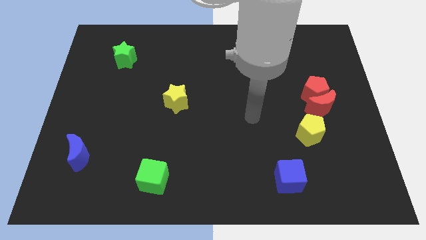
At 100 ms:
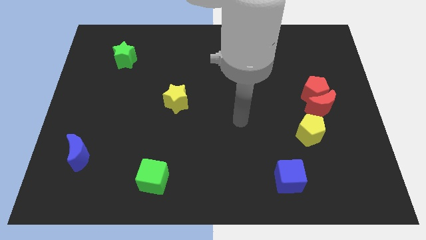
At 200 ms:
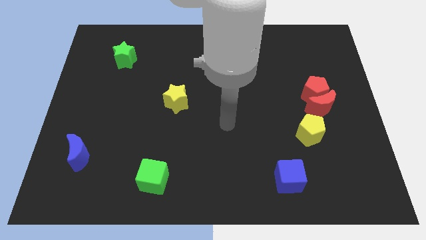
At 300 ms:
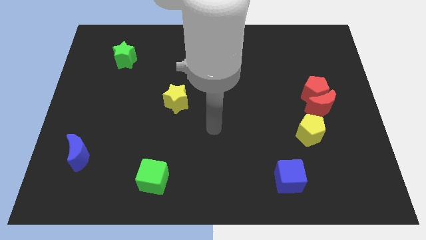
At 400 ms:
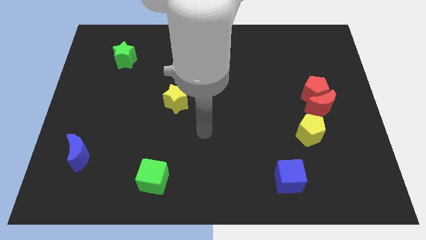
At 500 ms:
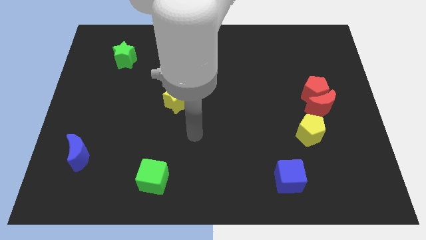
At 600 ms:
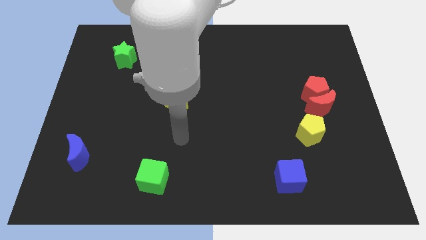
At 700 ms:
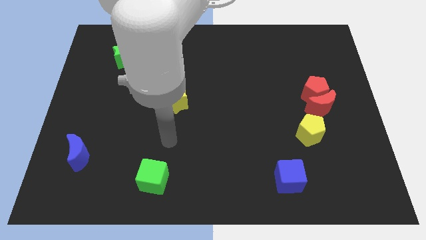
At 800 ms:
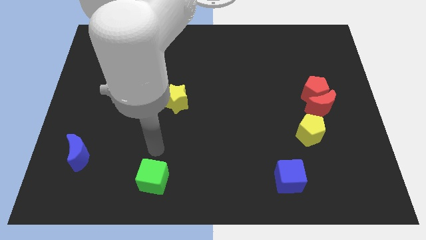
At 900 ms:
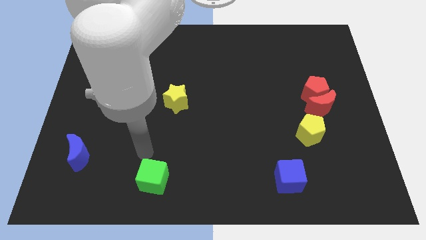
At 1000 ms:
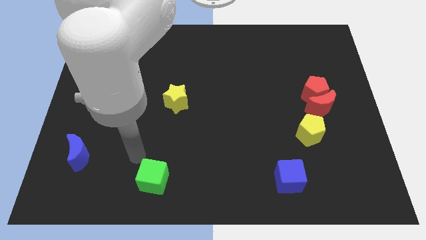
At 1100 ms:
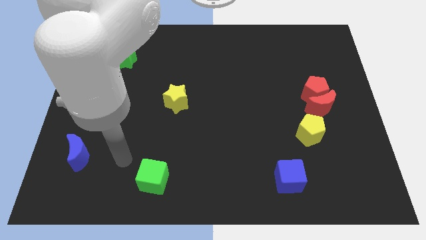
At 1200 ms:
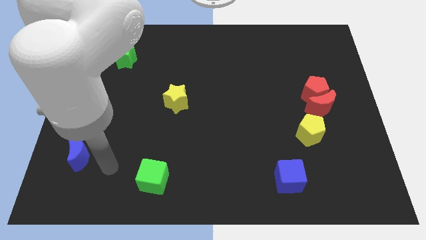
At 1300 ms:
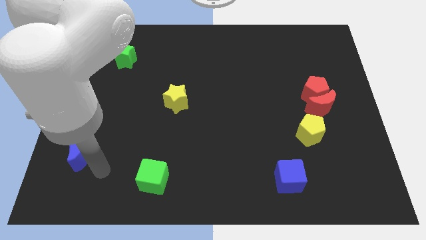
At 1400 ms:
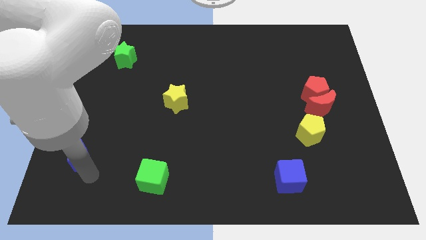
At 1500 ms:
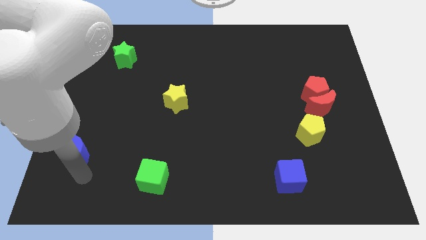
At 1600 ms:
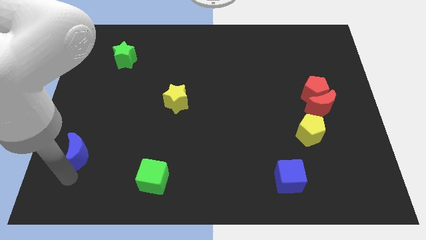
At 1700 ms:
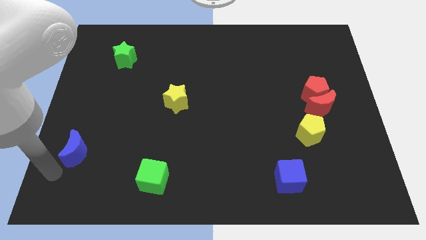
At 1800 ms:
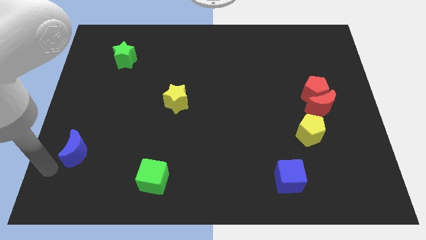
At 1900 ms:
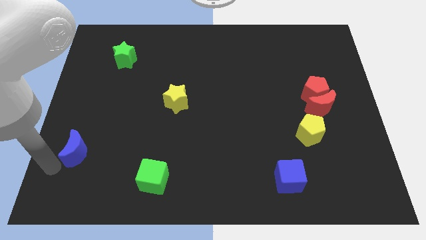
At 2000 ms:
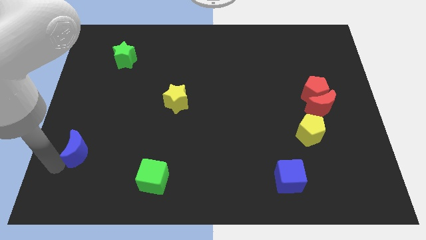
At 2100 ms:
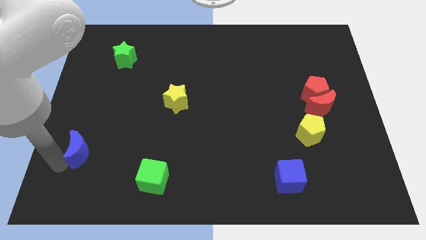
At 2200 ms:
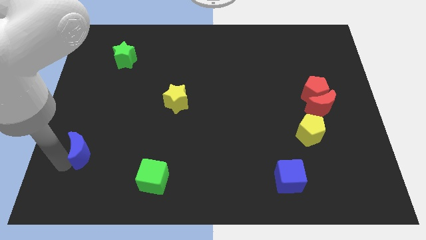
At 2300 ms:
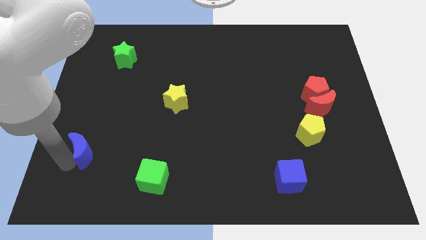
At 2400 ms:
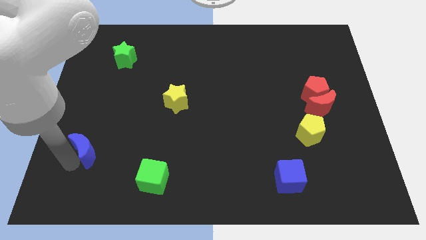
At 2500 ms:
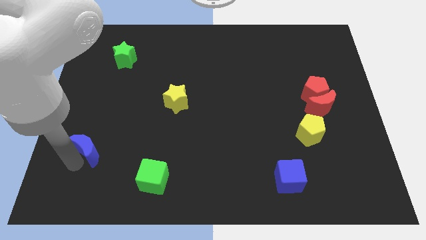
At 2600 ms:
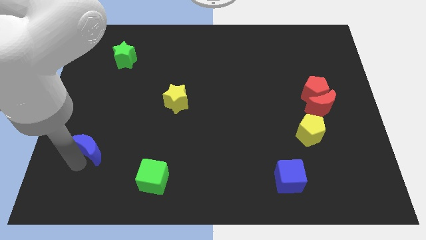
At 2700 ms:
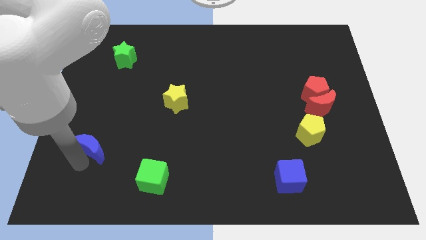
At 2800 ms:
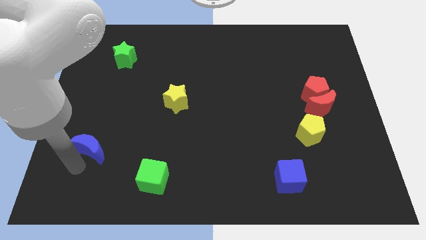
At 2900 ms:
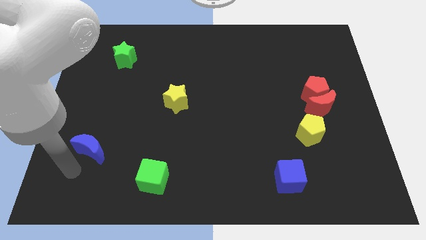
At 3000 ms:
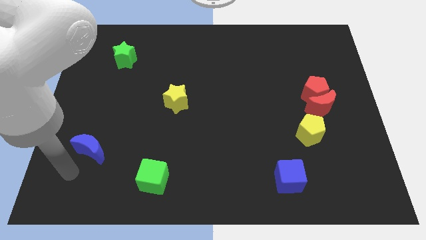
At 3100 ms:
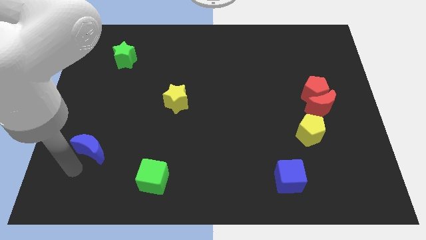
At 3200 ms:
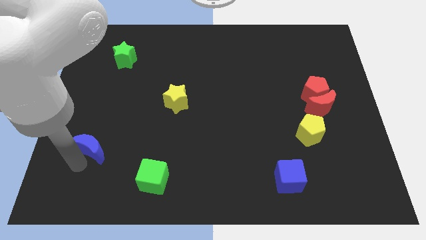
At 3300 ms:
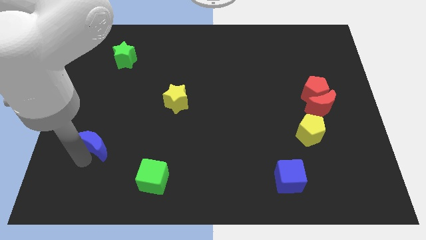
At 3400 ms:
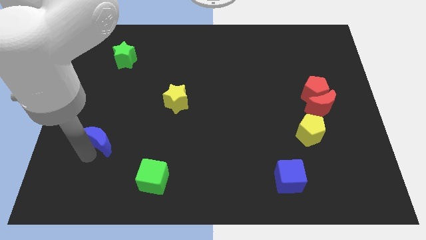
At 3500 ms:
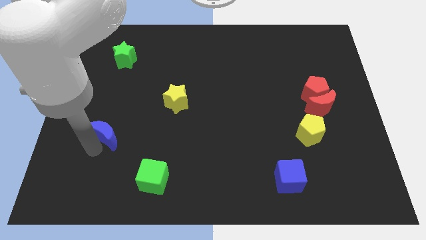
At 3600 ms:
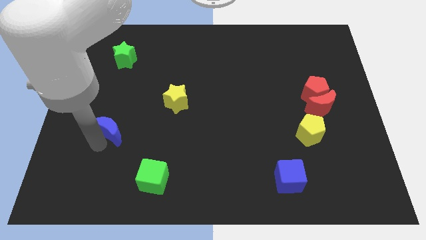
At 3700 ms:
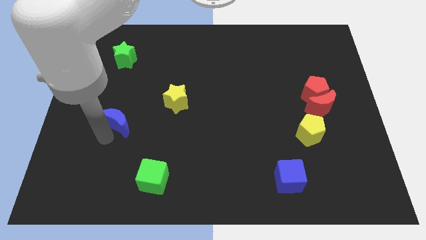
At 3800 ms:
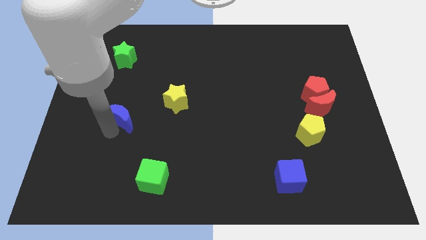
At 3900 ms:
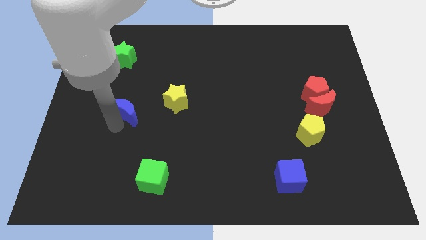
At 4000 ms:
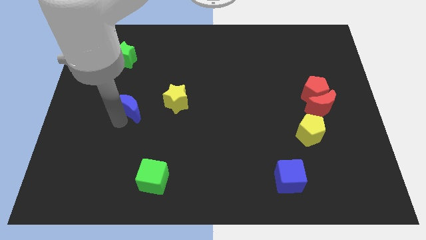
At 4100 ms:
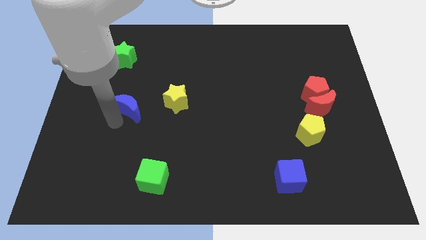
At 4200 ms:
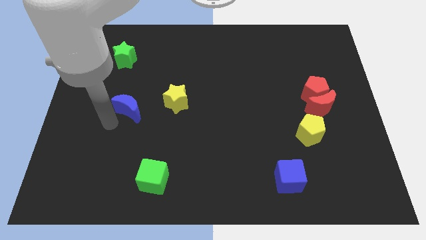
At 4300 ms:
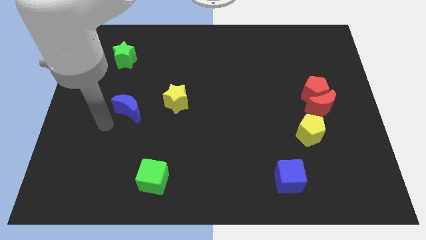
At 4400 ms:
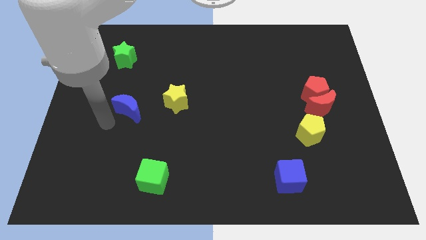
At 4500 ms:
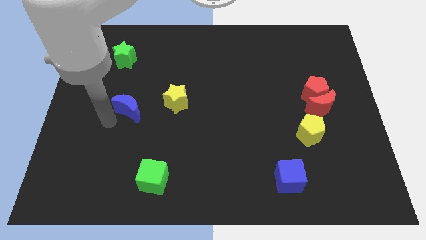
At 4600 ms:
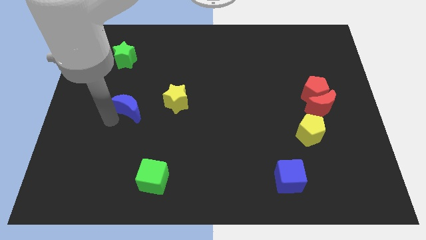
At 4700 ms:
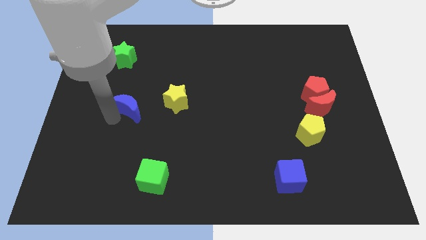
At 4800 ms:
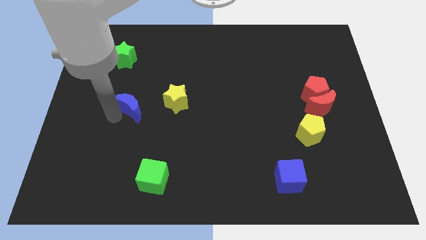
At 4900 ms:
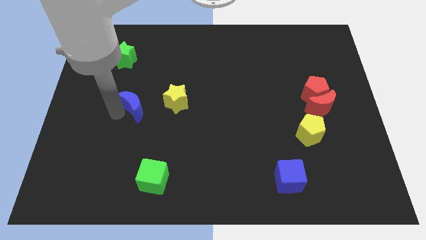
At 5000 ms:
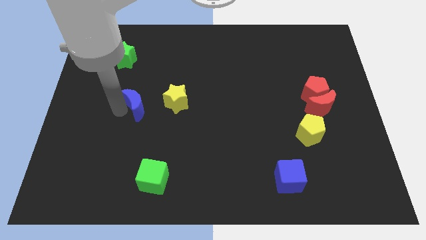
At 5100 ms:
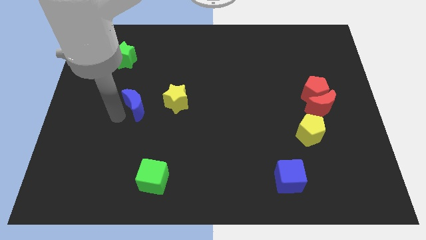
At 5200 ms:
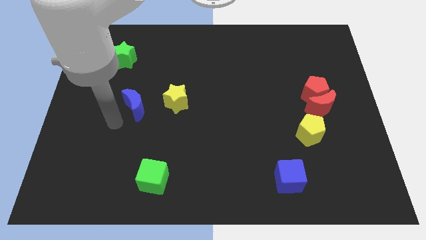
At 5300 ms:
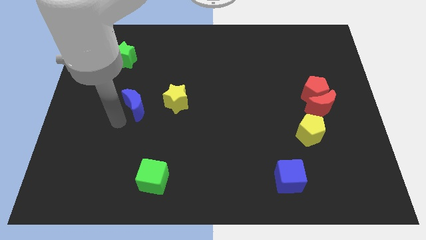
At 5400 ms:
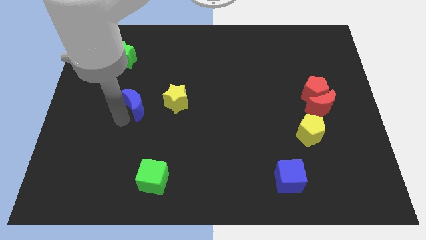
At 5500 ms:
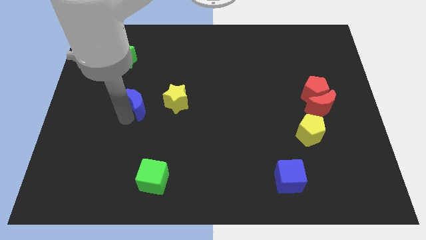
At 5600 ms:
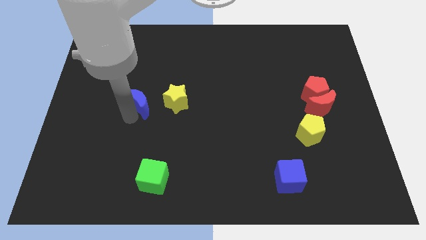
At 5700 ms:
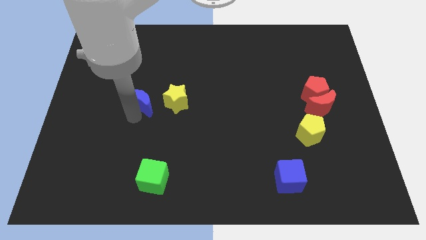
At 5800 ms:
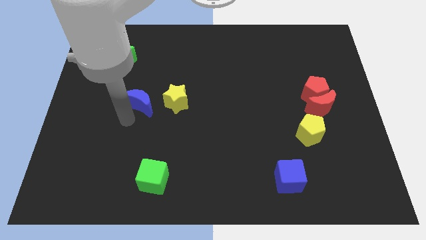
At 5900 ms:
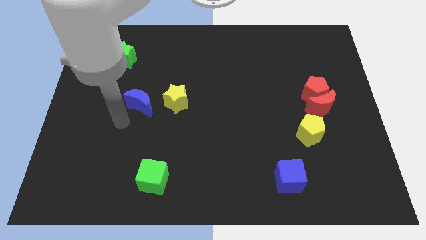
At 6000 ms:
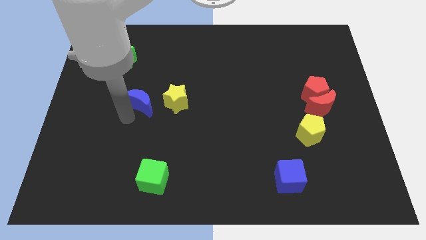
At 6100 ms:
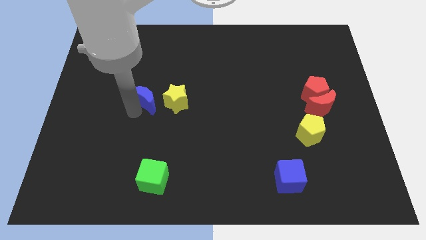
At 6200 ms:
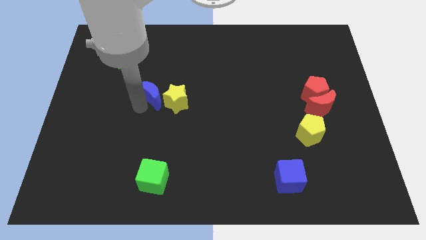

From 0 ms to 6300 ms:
push the blue moon diagonally up and right

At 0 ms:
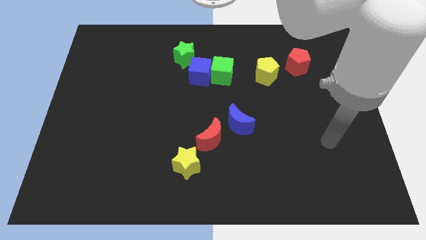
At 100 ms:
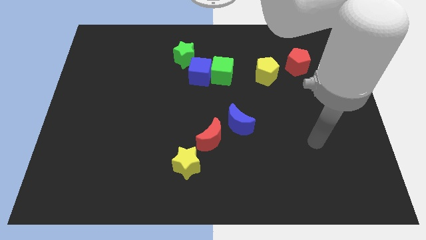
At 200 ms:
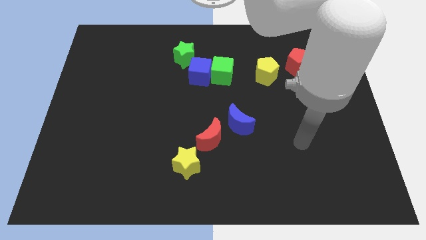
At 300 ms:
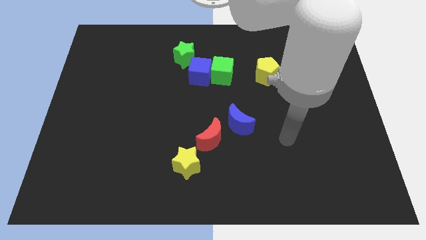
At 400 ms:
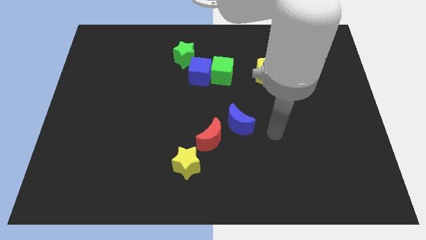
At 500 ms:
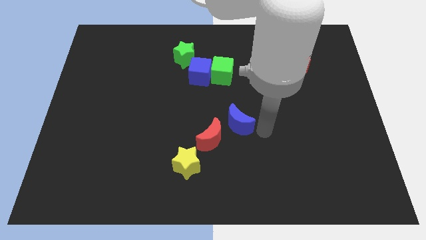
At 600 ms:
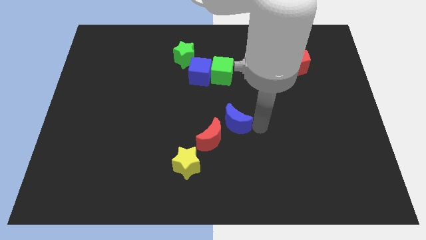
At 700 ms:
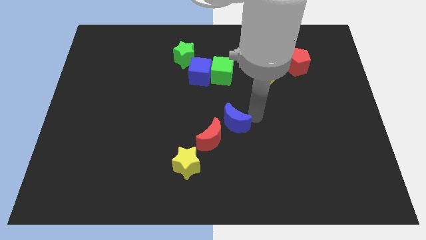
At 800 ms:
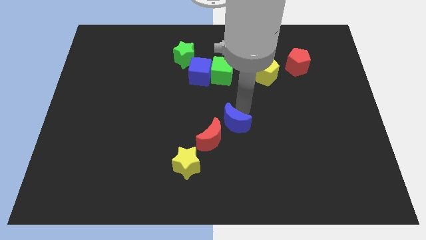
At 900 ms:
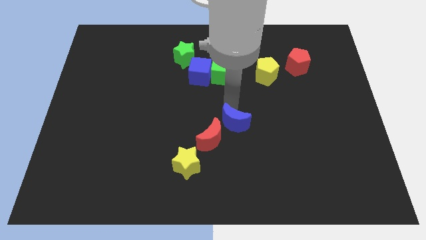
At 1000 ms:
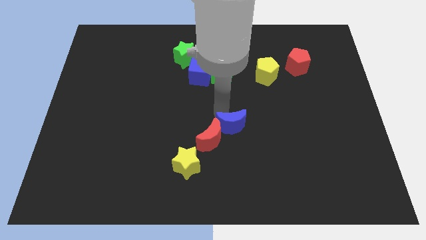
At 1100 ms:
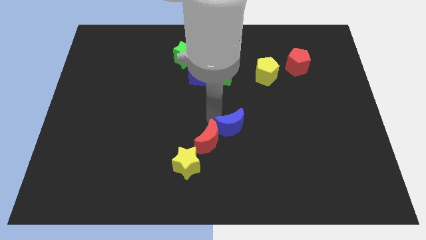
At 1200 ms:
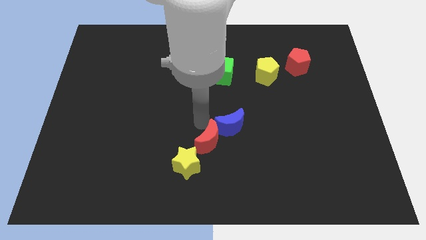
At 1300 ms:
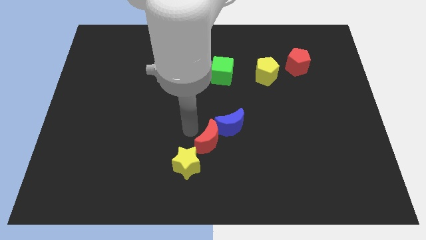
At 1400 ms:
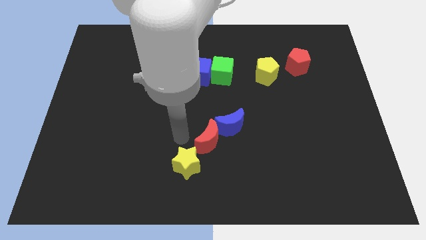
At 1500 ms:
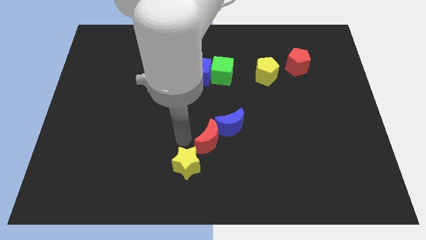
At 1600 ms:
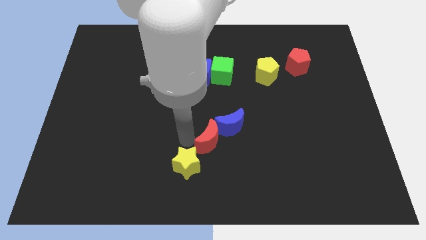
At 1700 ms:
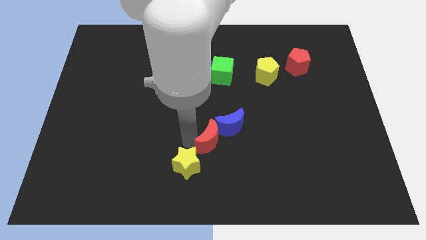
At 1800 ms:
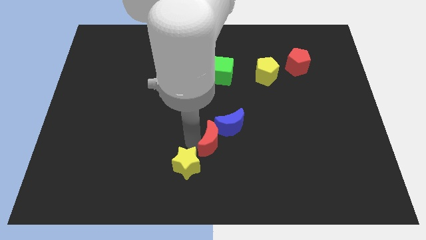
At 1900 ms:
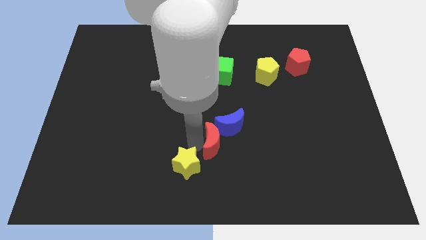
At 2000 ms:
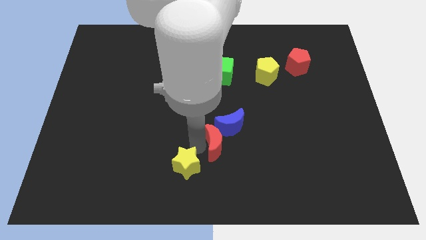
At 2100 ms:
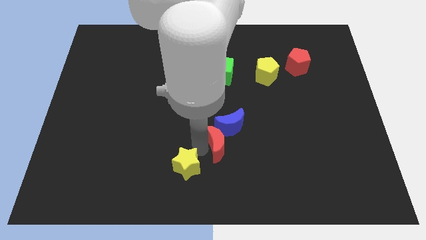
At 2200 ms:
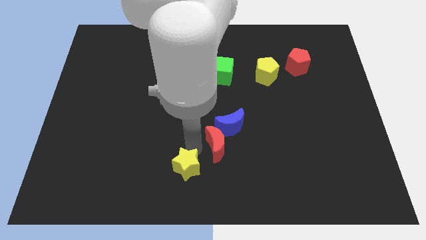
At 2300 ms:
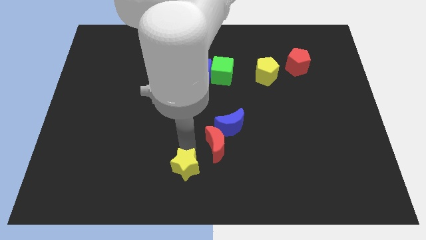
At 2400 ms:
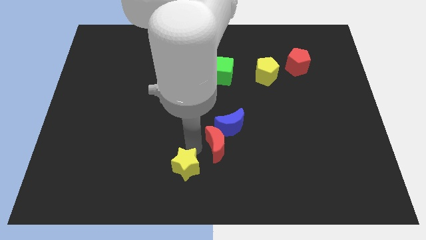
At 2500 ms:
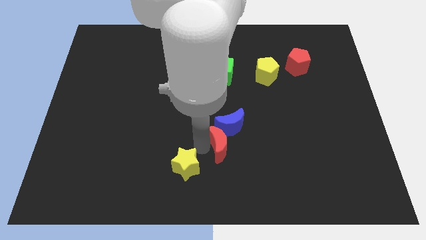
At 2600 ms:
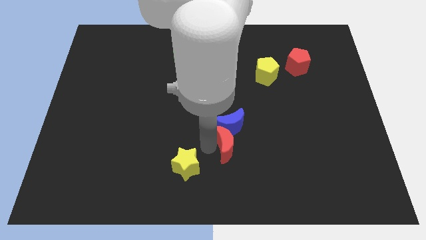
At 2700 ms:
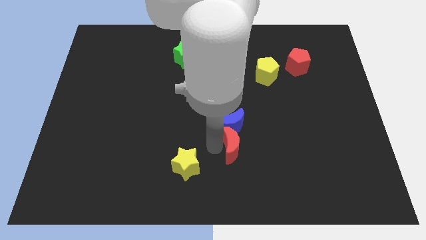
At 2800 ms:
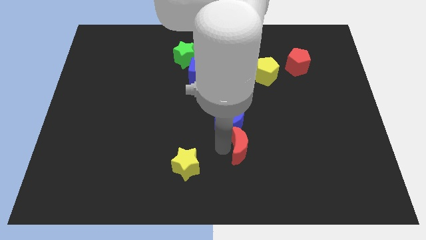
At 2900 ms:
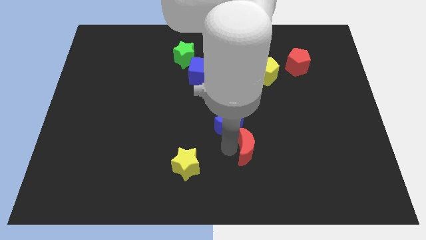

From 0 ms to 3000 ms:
push the red moon a bit right
